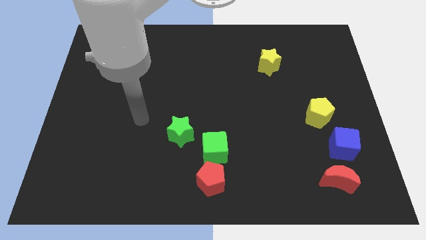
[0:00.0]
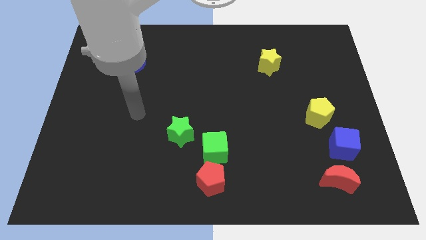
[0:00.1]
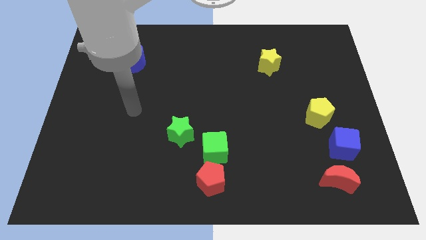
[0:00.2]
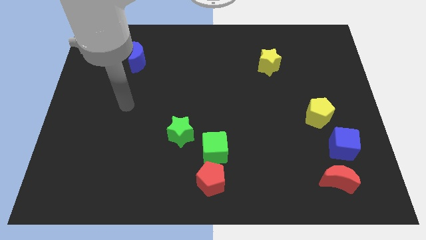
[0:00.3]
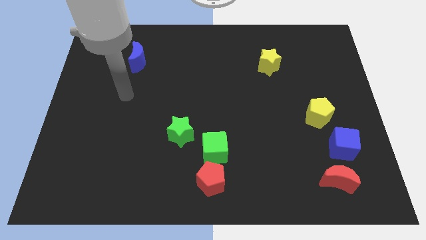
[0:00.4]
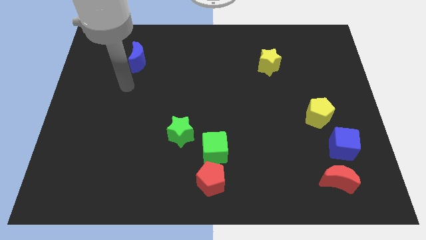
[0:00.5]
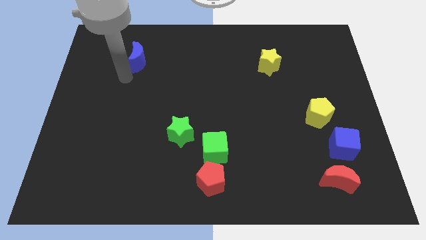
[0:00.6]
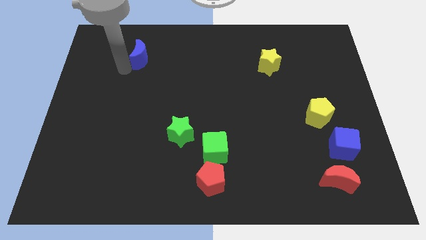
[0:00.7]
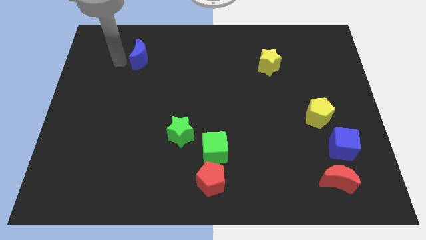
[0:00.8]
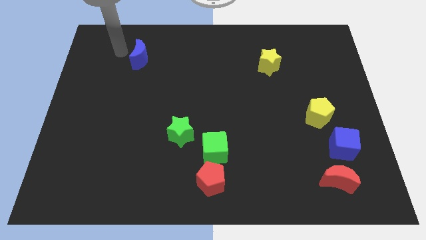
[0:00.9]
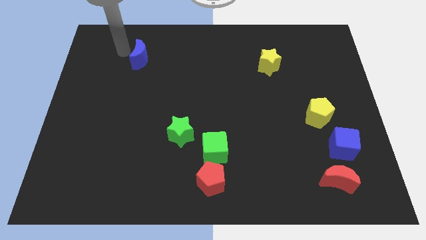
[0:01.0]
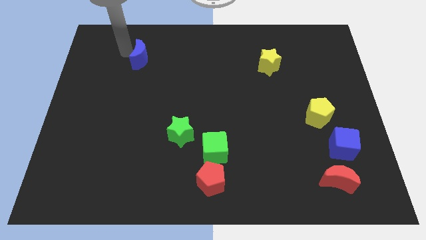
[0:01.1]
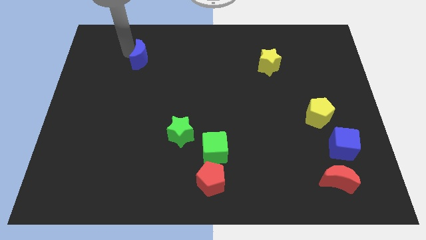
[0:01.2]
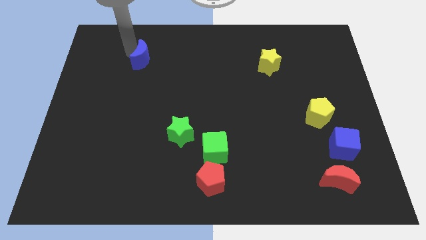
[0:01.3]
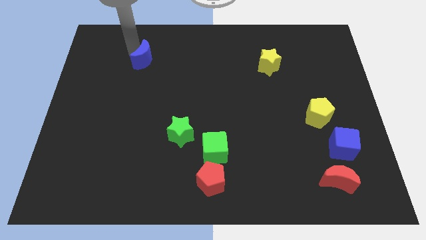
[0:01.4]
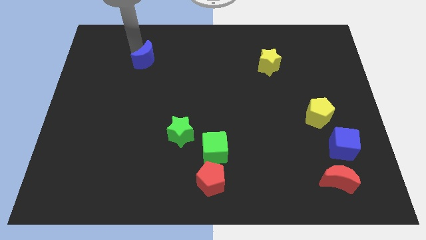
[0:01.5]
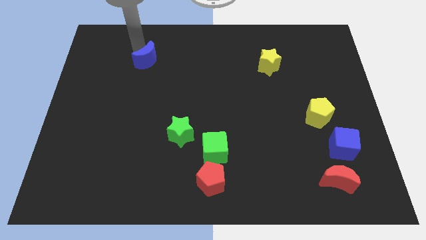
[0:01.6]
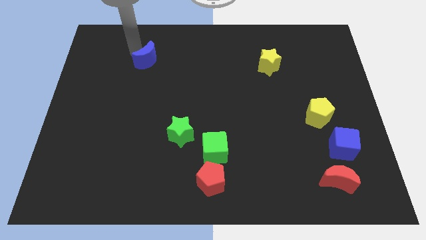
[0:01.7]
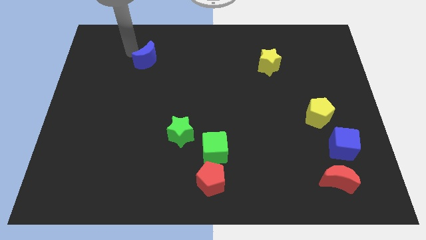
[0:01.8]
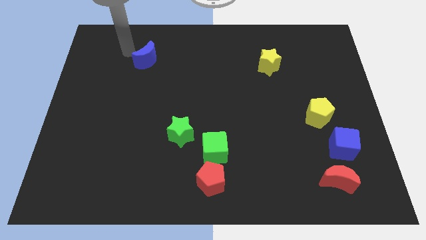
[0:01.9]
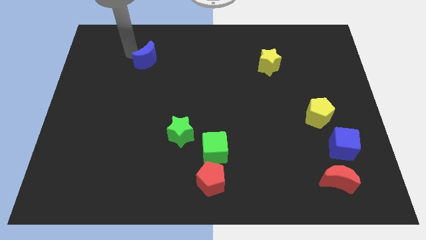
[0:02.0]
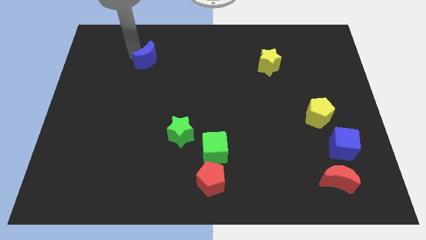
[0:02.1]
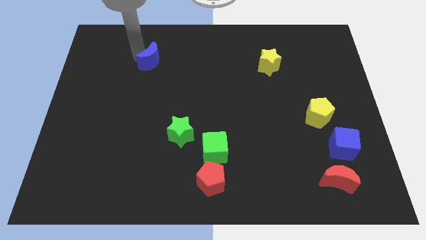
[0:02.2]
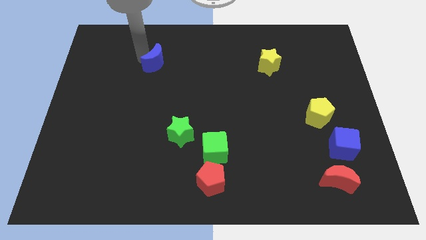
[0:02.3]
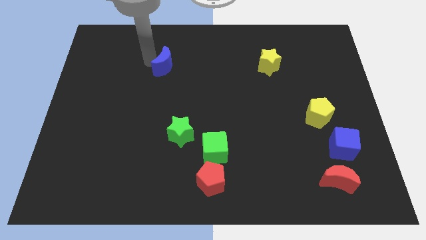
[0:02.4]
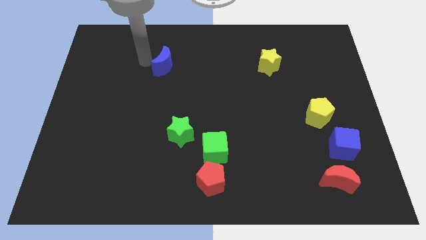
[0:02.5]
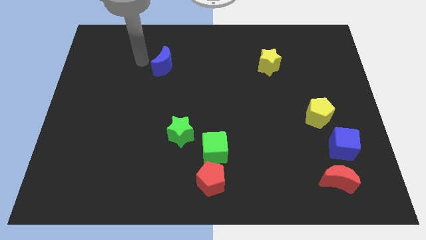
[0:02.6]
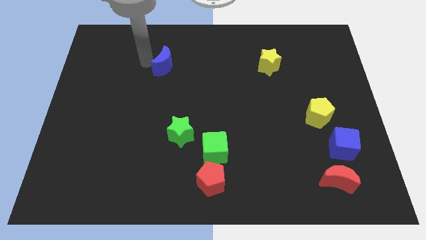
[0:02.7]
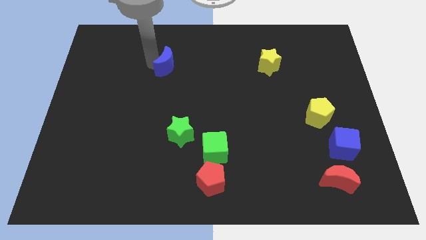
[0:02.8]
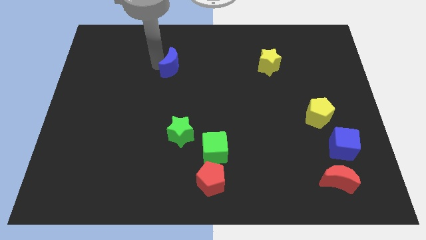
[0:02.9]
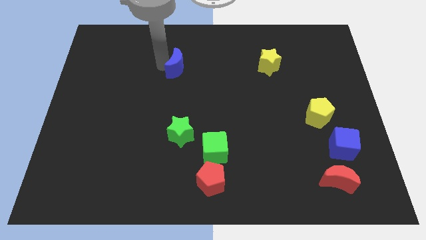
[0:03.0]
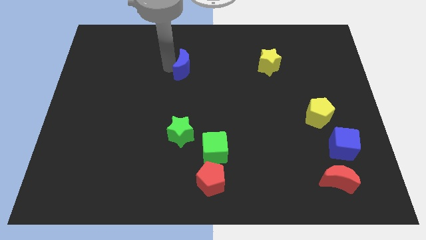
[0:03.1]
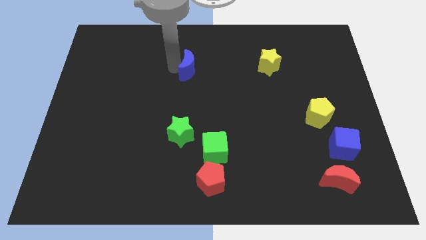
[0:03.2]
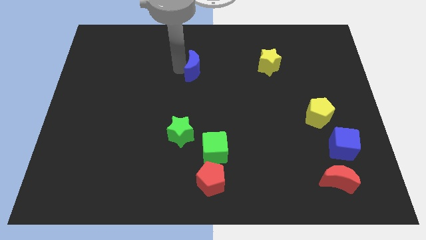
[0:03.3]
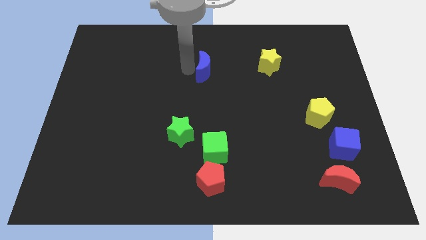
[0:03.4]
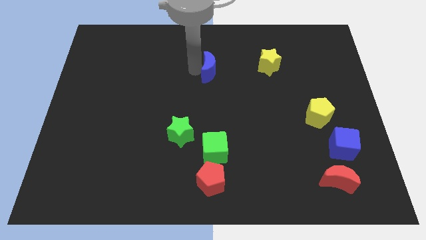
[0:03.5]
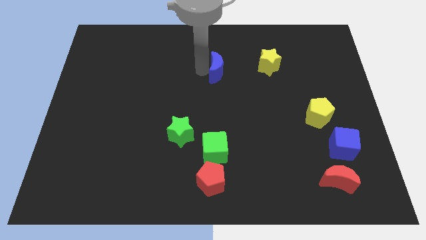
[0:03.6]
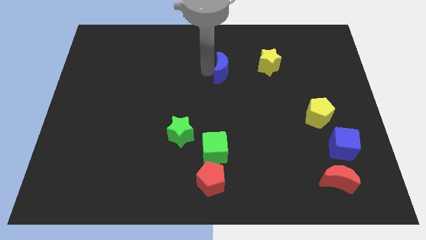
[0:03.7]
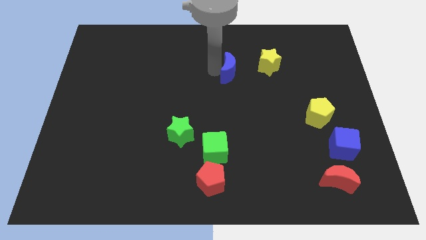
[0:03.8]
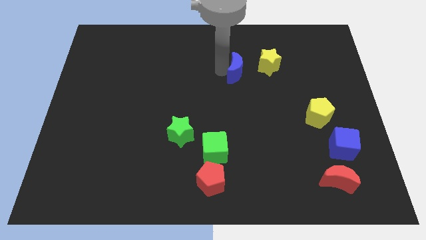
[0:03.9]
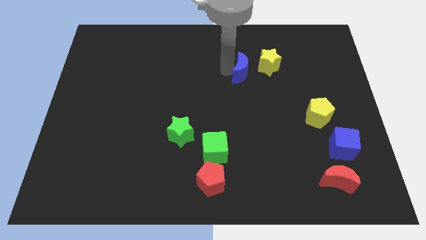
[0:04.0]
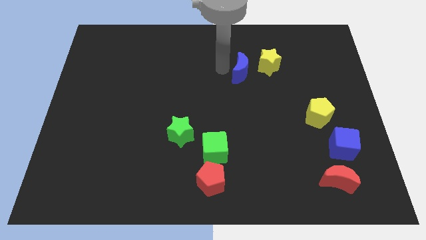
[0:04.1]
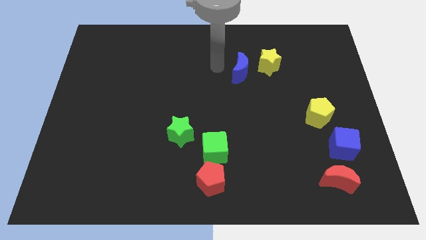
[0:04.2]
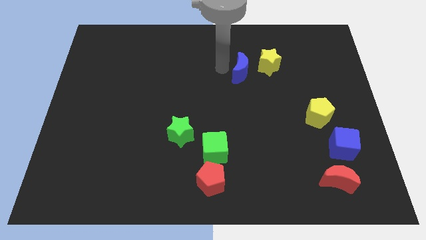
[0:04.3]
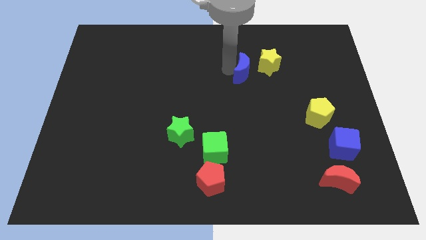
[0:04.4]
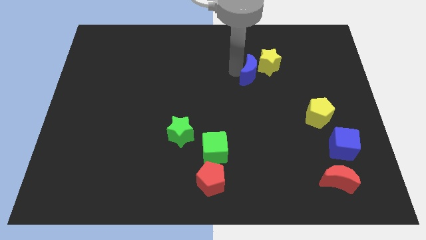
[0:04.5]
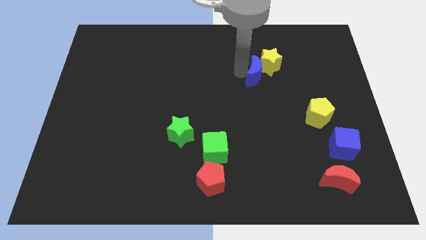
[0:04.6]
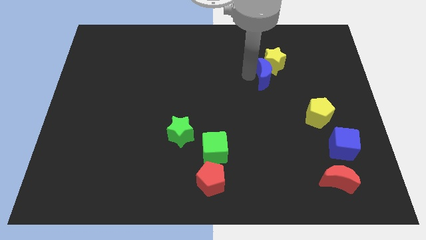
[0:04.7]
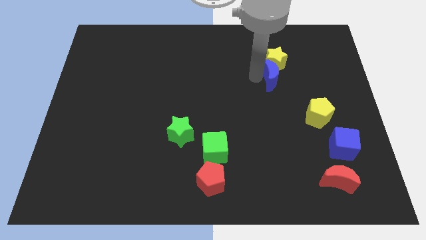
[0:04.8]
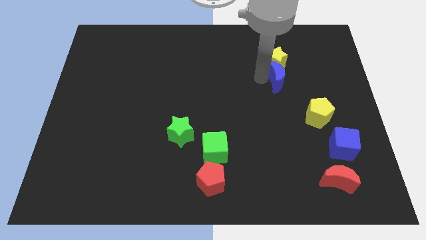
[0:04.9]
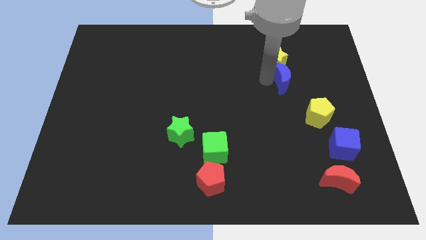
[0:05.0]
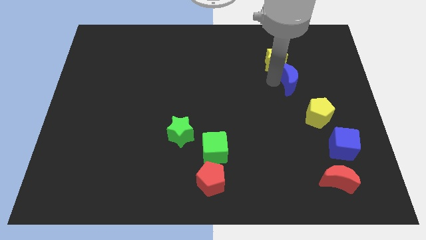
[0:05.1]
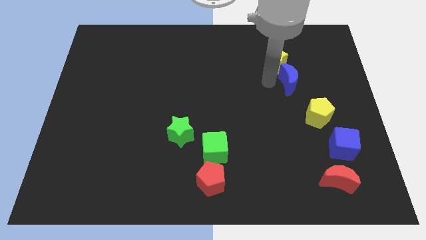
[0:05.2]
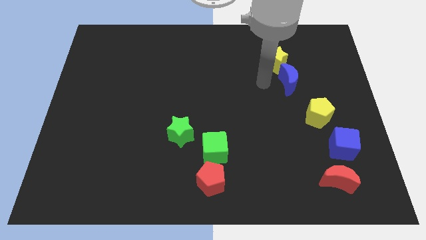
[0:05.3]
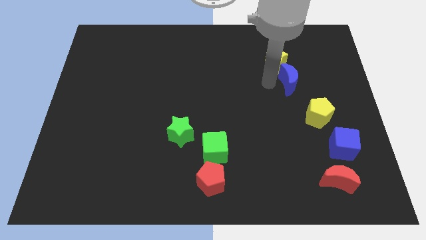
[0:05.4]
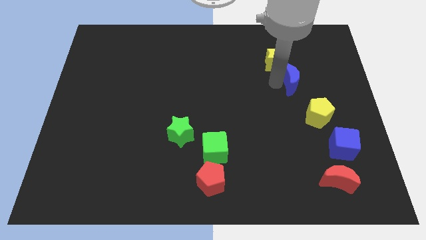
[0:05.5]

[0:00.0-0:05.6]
slide the blue moon above the yellow pentagon

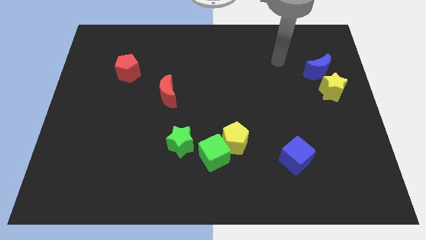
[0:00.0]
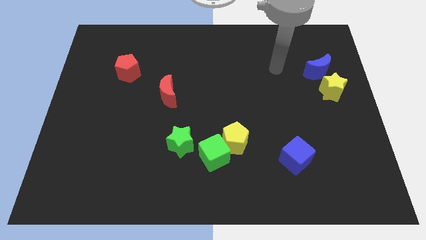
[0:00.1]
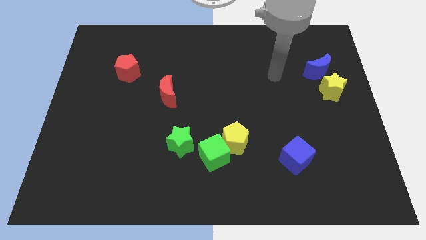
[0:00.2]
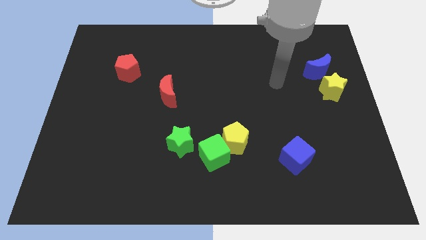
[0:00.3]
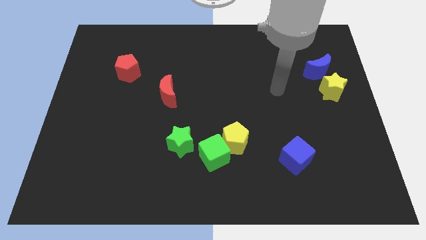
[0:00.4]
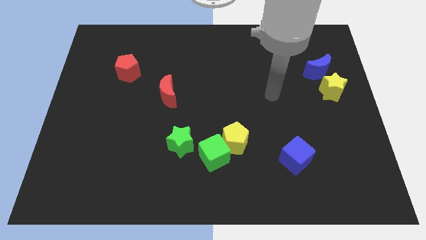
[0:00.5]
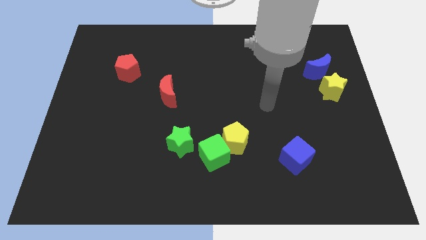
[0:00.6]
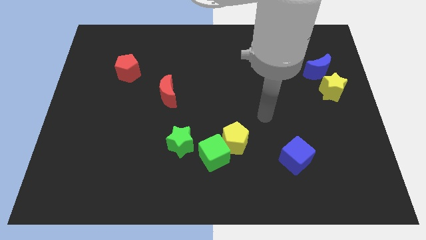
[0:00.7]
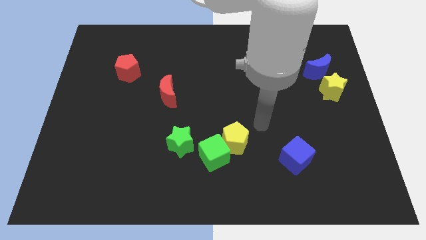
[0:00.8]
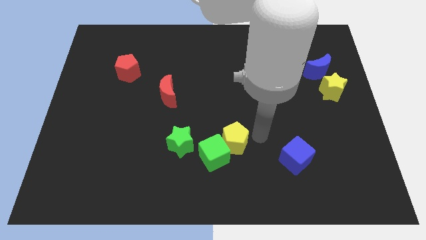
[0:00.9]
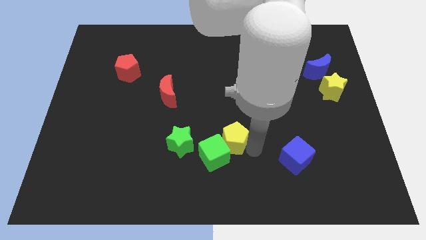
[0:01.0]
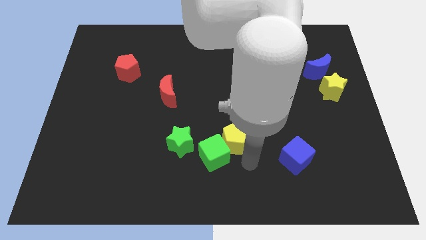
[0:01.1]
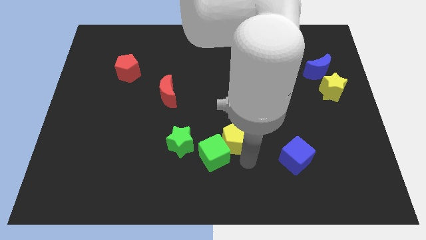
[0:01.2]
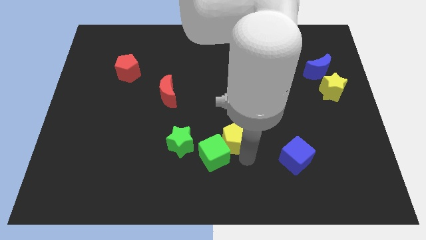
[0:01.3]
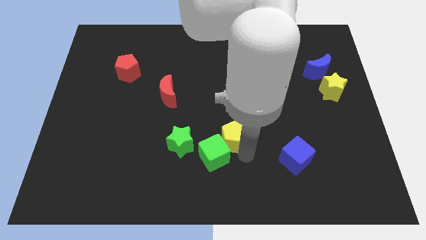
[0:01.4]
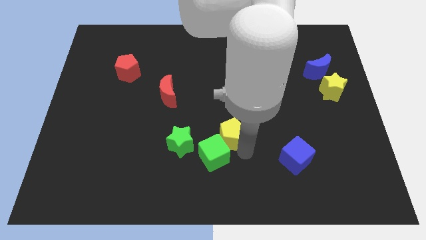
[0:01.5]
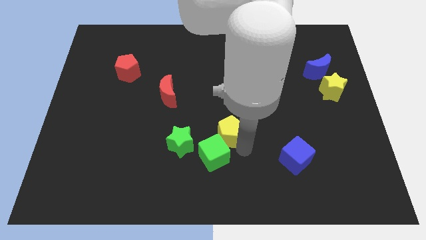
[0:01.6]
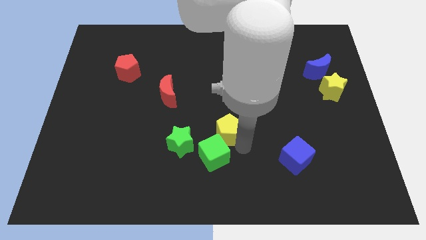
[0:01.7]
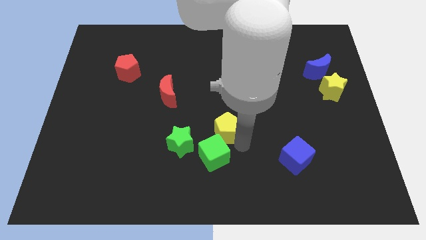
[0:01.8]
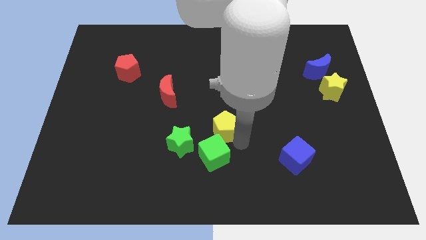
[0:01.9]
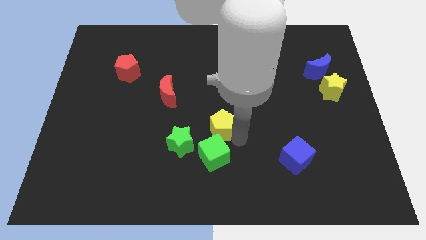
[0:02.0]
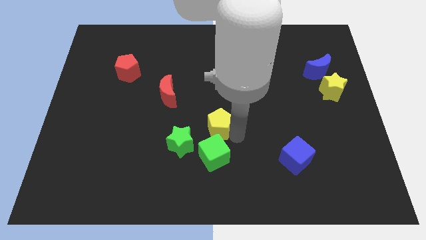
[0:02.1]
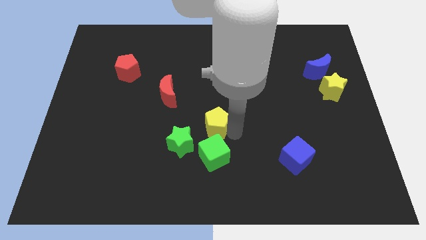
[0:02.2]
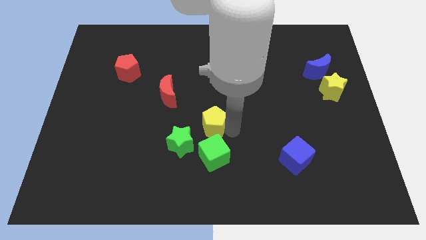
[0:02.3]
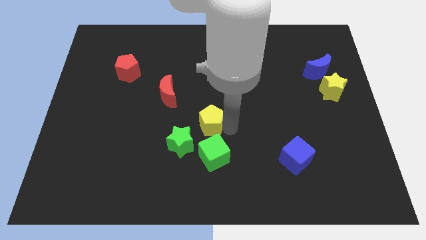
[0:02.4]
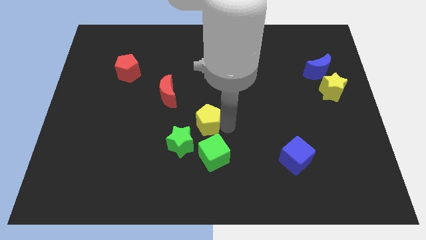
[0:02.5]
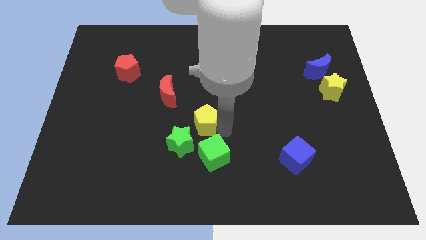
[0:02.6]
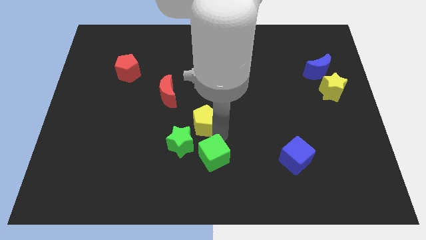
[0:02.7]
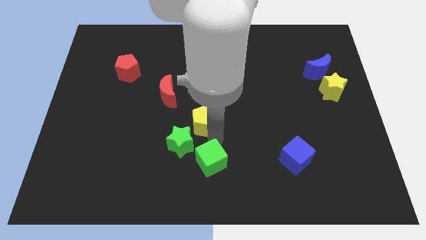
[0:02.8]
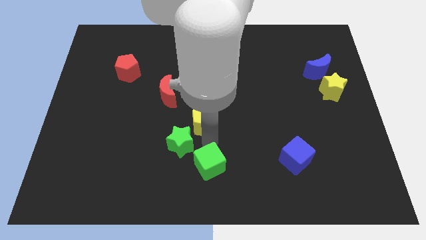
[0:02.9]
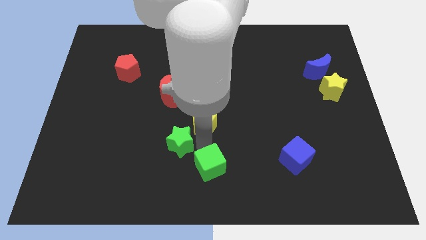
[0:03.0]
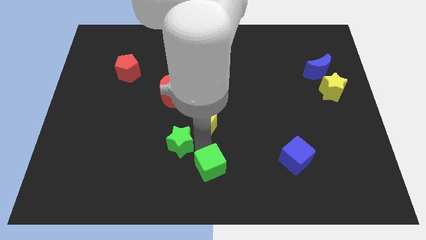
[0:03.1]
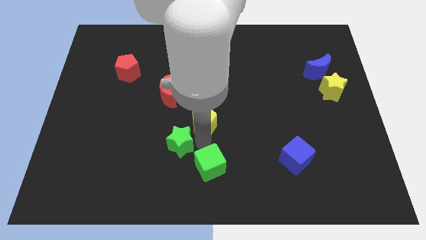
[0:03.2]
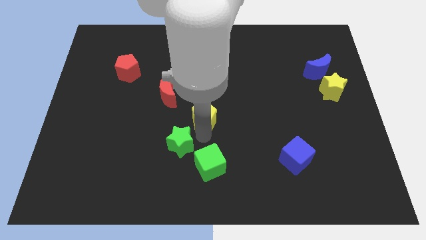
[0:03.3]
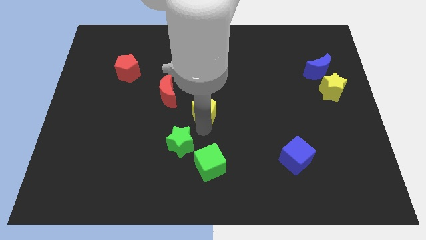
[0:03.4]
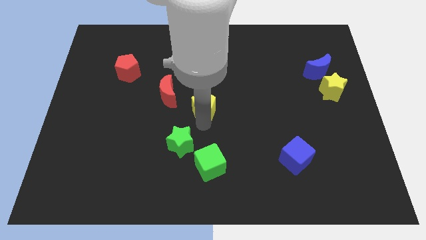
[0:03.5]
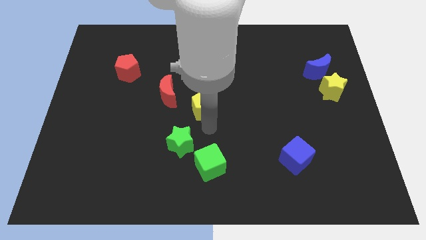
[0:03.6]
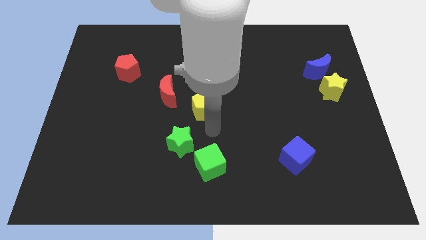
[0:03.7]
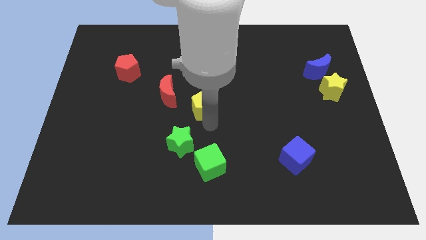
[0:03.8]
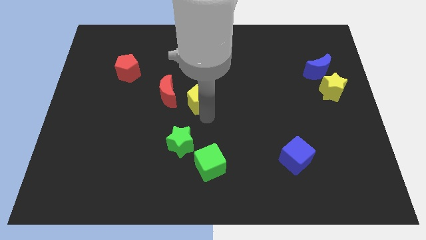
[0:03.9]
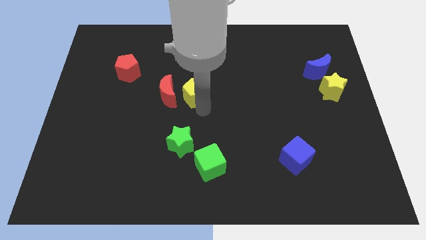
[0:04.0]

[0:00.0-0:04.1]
put the yellow pentagon diagonally up and to the right of the red moon
